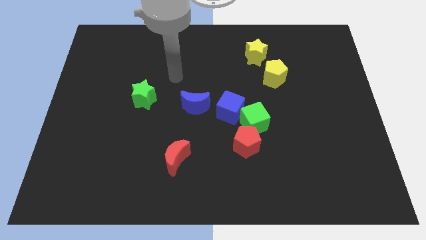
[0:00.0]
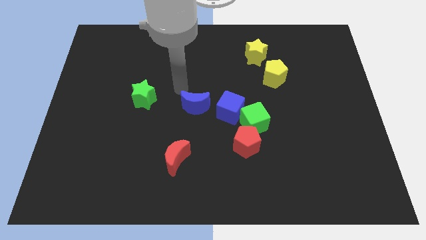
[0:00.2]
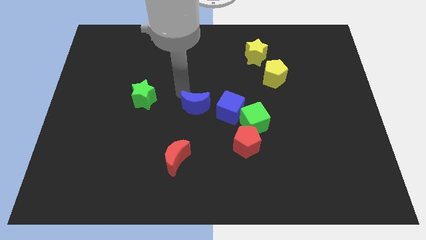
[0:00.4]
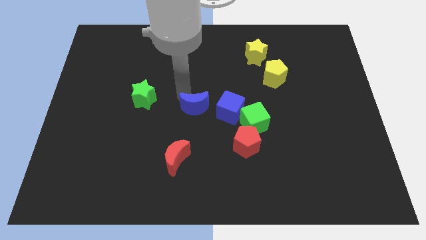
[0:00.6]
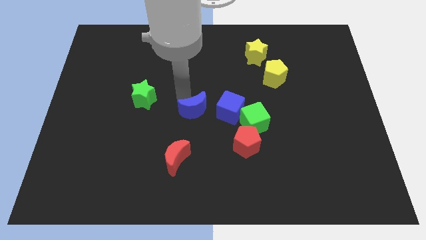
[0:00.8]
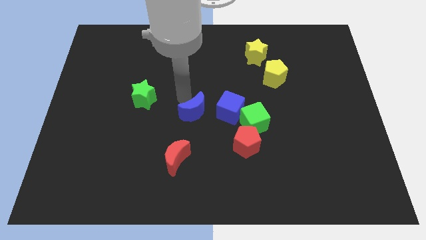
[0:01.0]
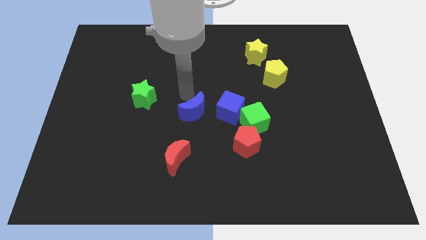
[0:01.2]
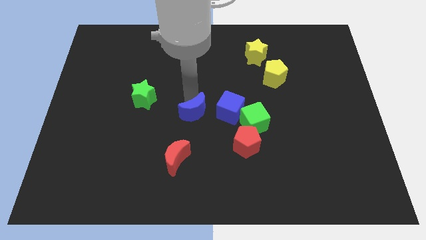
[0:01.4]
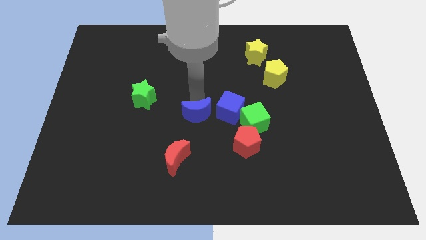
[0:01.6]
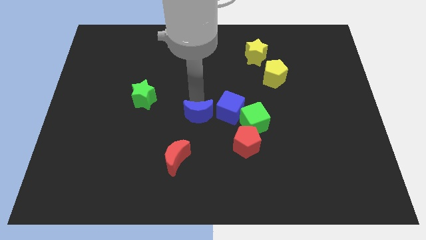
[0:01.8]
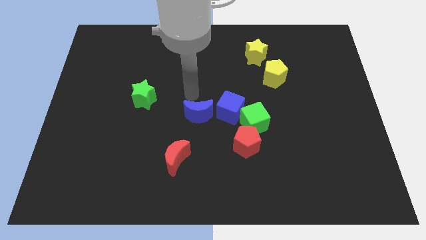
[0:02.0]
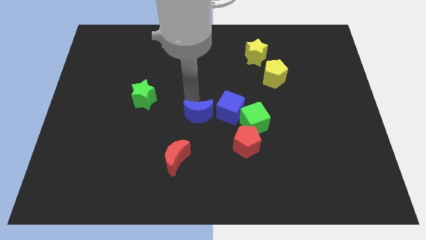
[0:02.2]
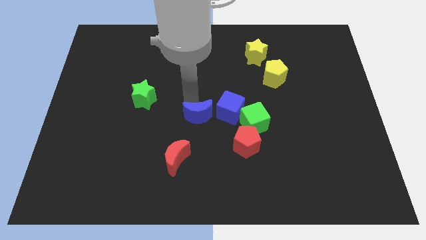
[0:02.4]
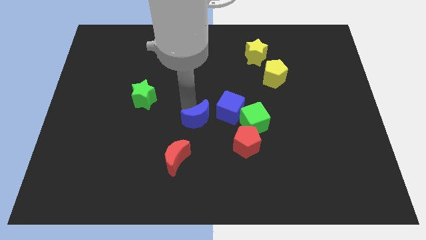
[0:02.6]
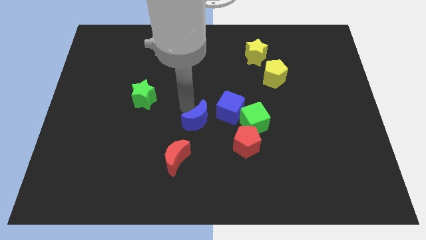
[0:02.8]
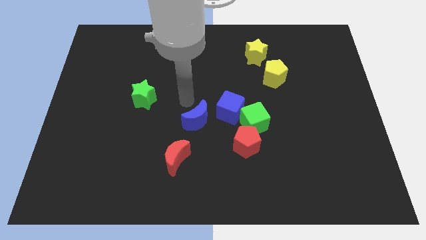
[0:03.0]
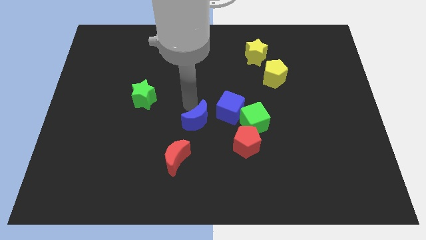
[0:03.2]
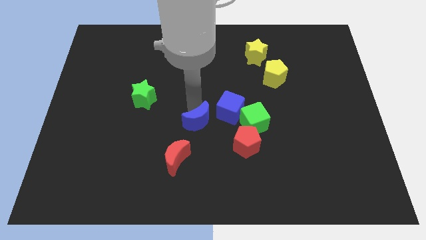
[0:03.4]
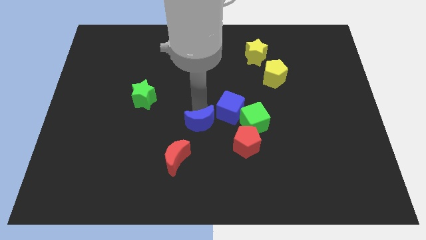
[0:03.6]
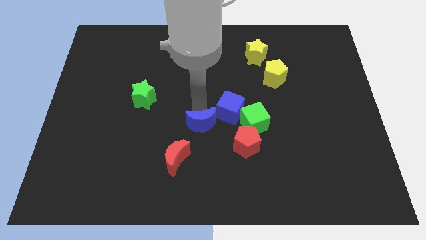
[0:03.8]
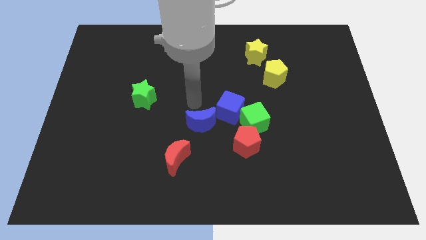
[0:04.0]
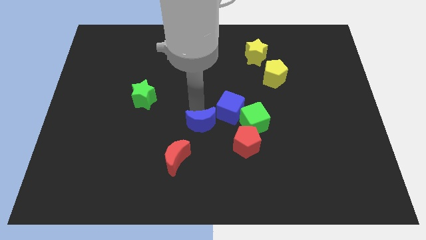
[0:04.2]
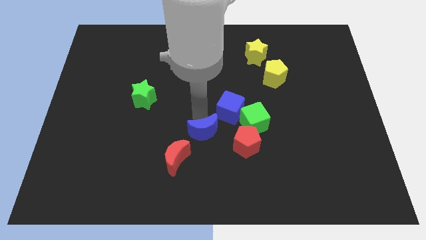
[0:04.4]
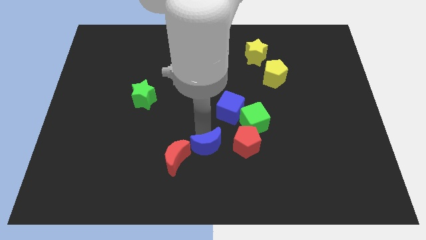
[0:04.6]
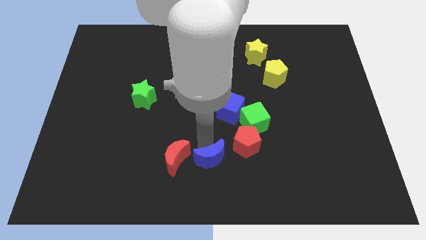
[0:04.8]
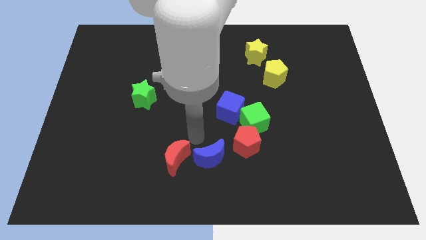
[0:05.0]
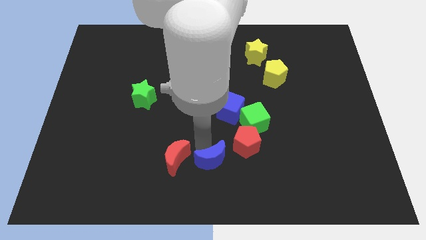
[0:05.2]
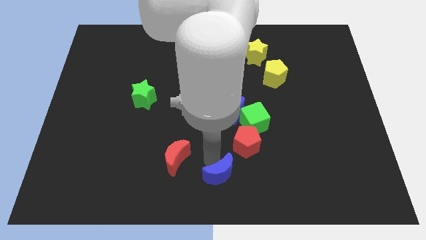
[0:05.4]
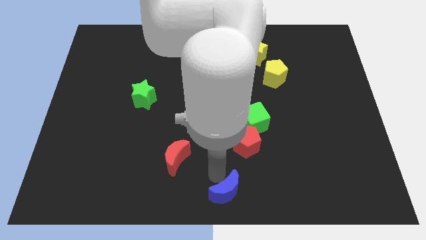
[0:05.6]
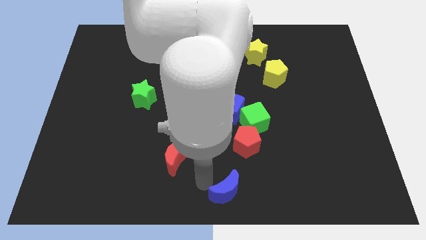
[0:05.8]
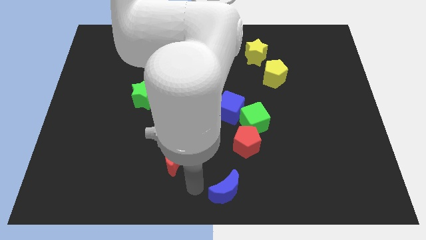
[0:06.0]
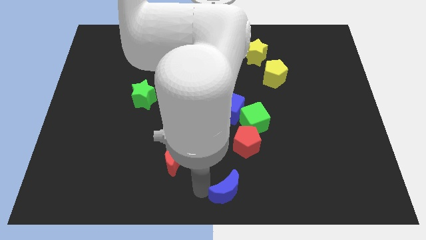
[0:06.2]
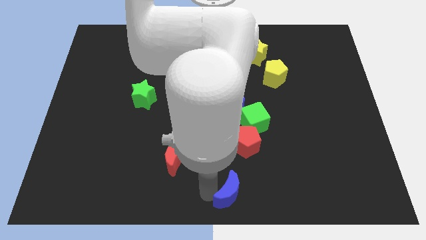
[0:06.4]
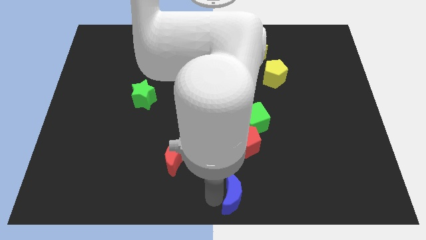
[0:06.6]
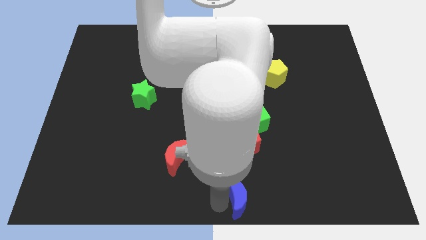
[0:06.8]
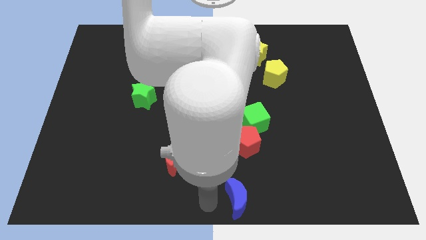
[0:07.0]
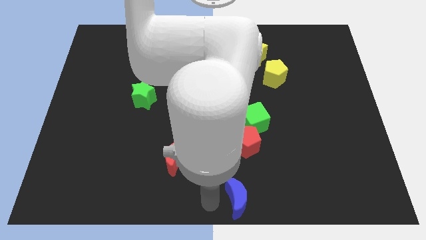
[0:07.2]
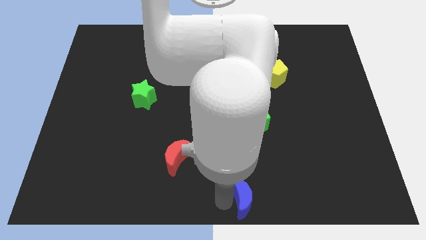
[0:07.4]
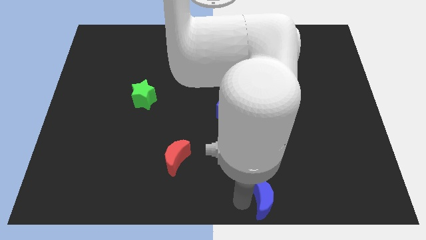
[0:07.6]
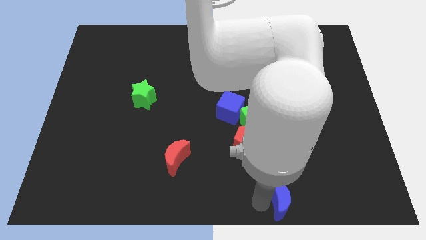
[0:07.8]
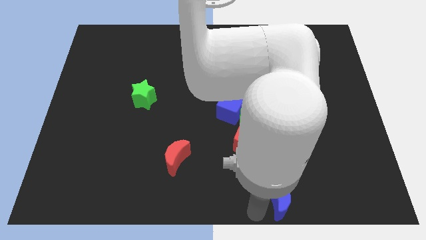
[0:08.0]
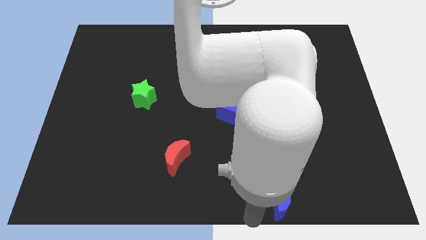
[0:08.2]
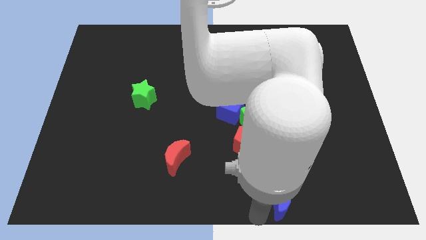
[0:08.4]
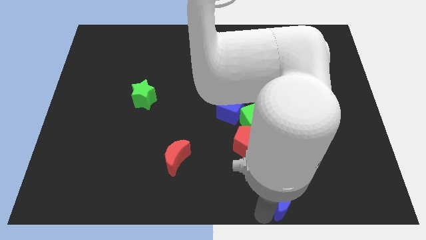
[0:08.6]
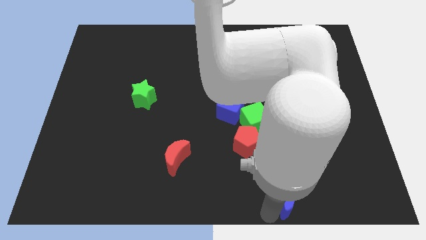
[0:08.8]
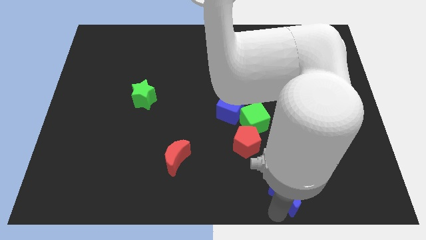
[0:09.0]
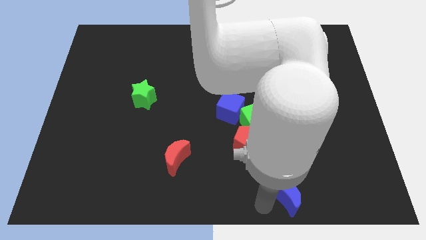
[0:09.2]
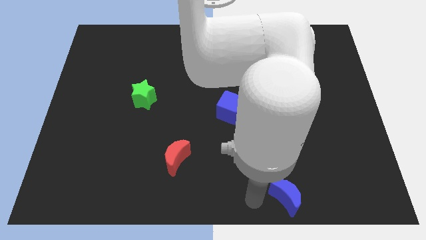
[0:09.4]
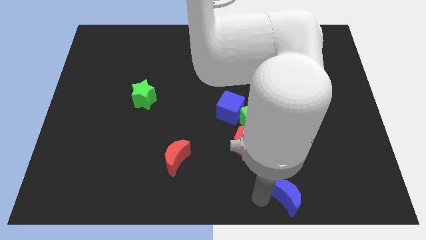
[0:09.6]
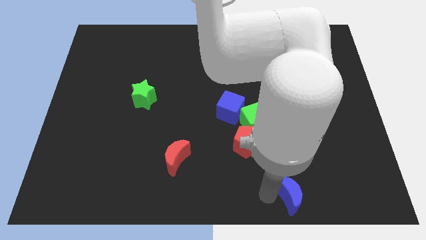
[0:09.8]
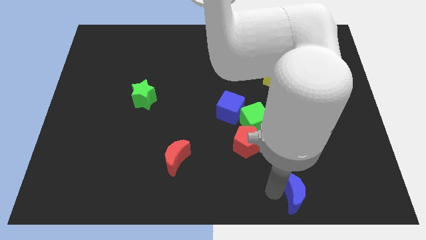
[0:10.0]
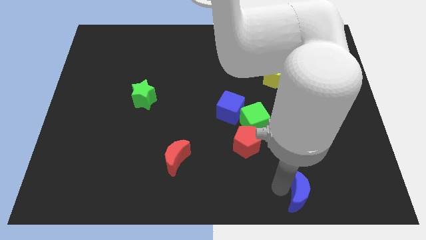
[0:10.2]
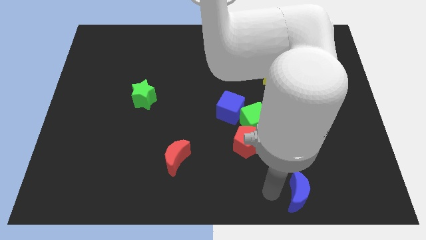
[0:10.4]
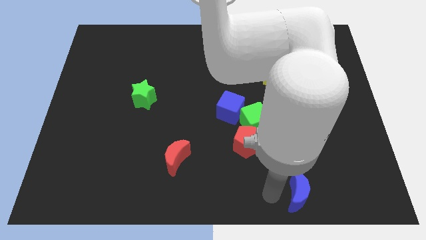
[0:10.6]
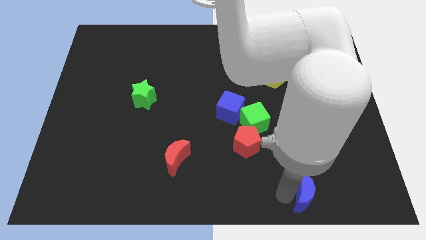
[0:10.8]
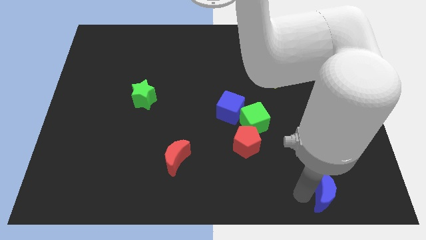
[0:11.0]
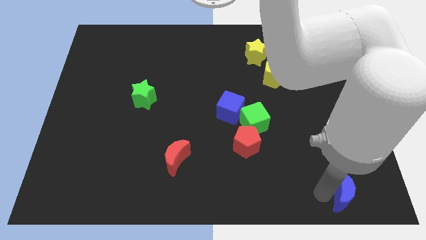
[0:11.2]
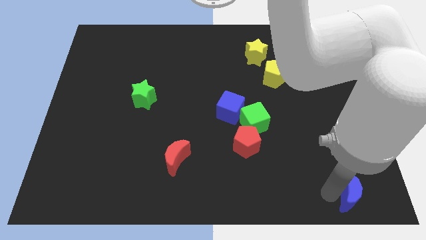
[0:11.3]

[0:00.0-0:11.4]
put the blue moon to the lower right corner

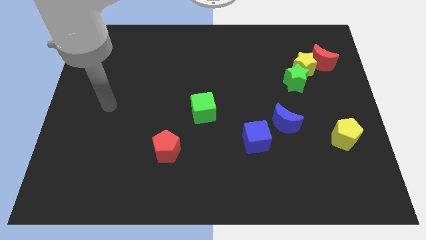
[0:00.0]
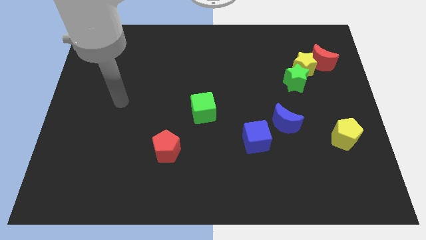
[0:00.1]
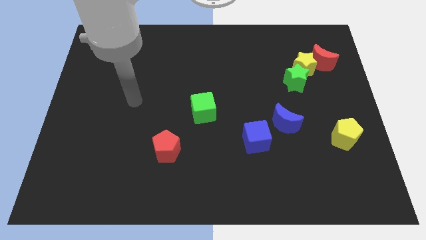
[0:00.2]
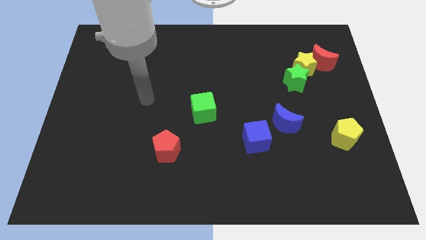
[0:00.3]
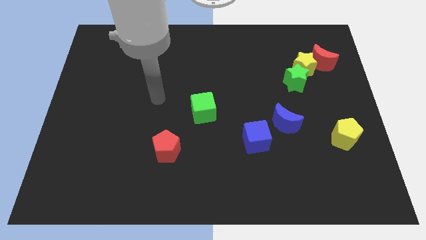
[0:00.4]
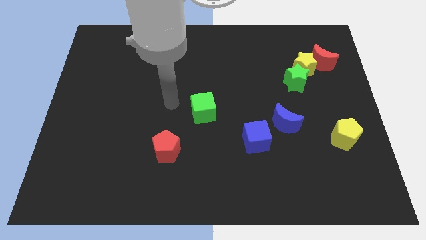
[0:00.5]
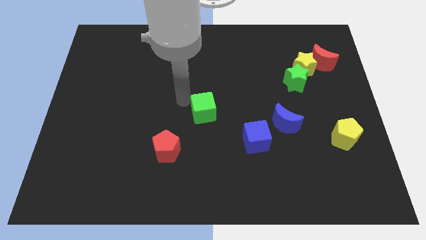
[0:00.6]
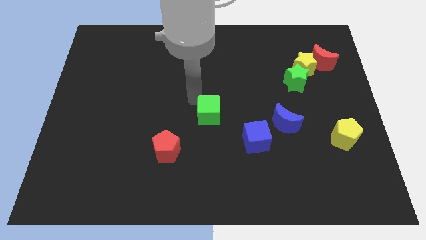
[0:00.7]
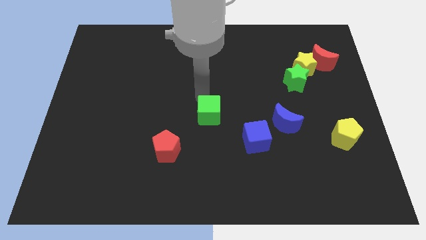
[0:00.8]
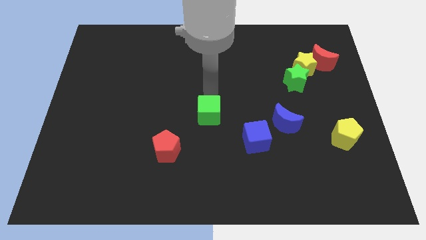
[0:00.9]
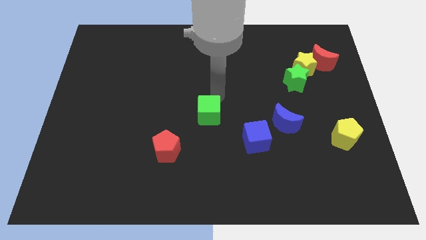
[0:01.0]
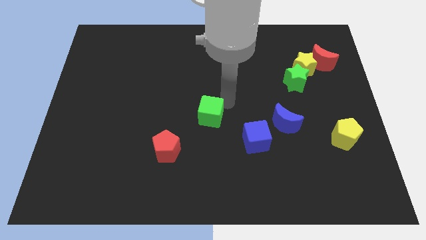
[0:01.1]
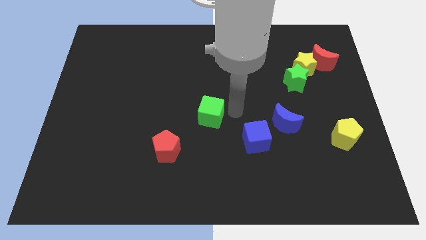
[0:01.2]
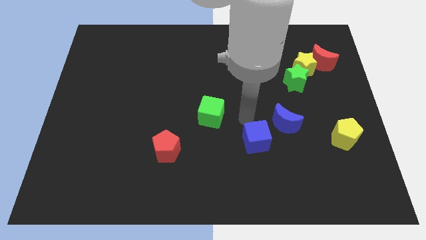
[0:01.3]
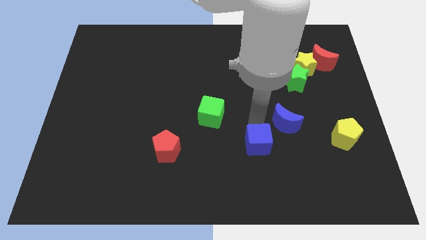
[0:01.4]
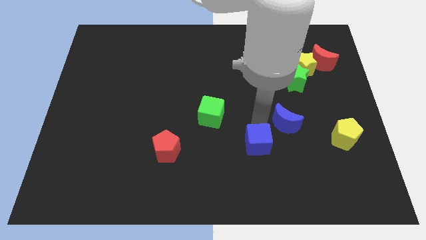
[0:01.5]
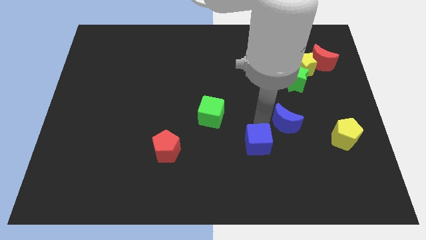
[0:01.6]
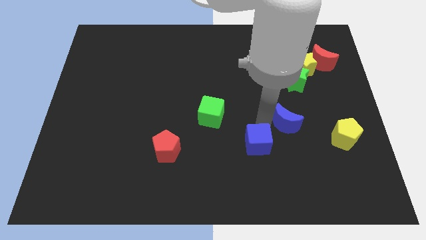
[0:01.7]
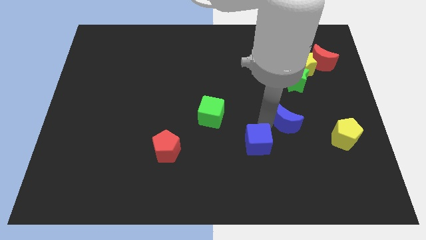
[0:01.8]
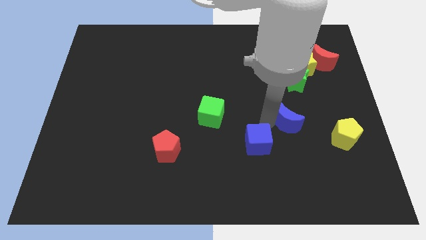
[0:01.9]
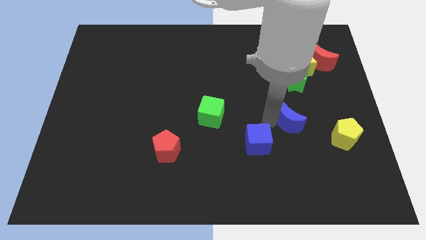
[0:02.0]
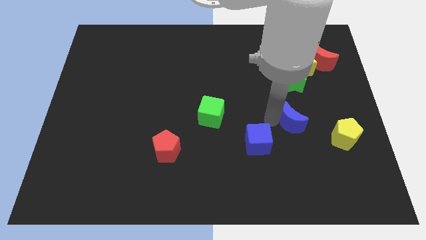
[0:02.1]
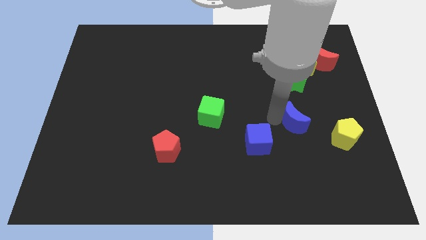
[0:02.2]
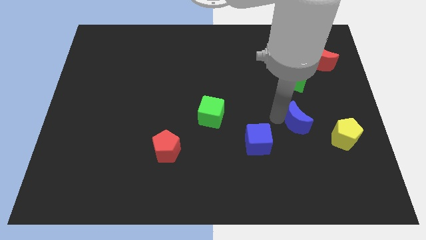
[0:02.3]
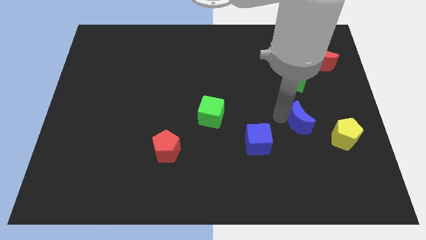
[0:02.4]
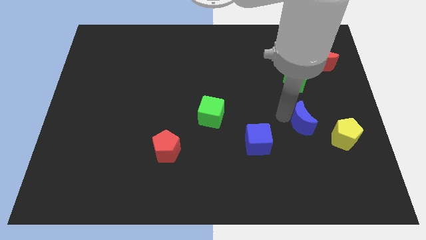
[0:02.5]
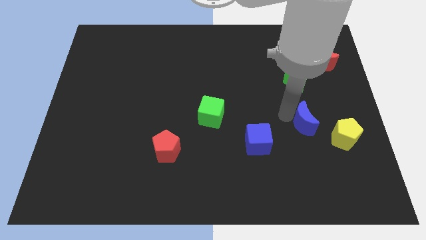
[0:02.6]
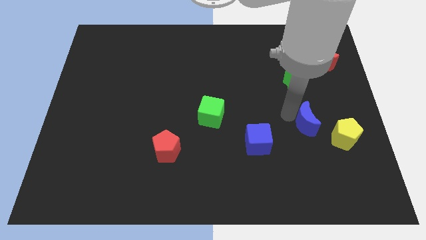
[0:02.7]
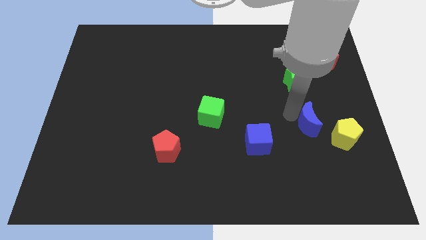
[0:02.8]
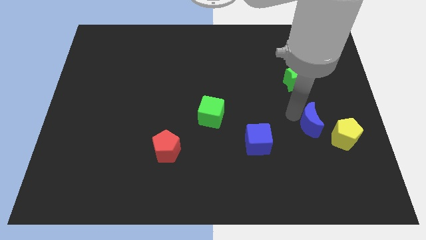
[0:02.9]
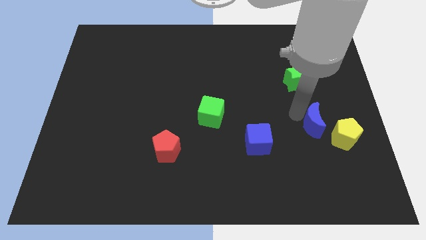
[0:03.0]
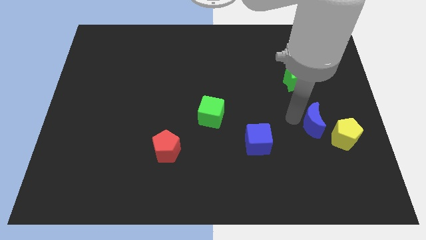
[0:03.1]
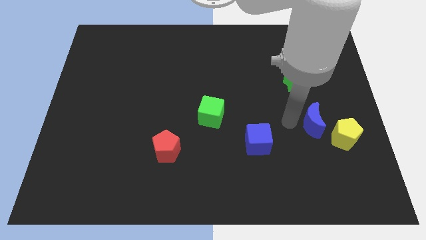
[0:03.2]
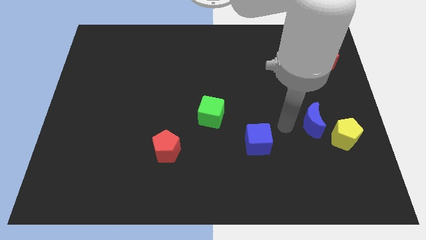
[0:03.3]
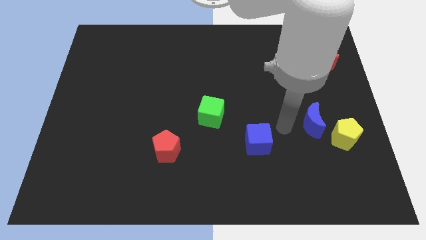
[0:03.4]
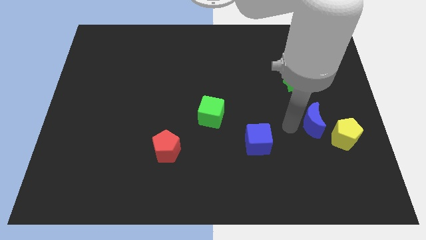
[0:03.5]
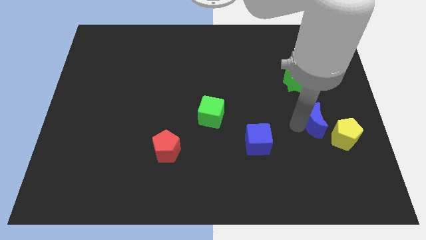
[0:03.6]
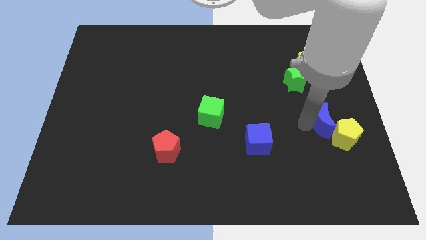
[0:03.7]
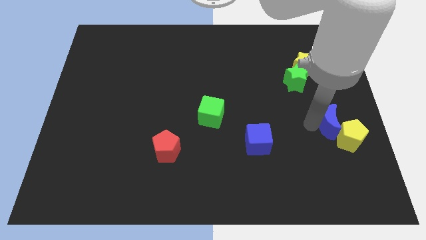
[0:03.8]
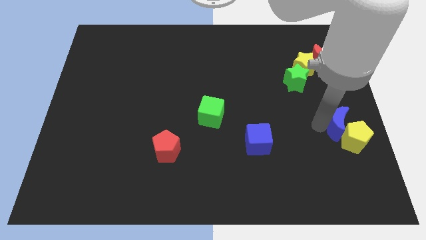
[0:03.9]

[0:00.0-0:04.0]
move the blue moon to the right side
